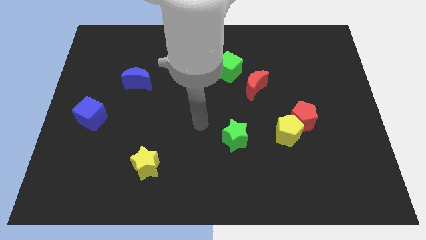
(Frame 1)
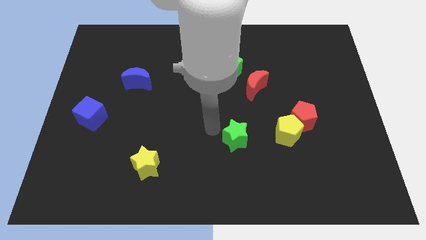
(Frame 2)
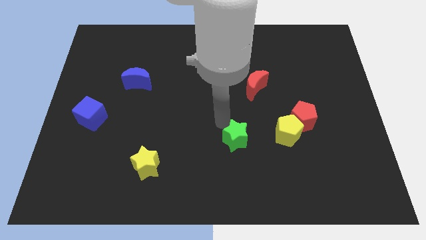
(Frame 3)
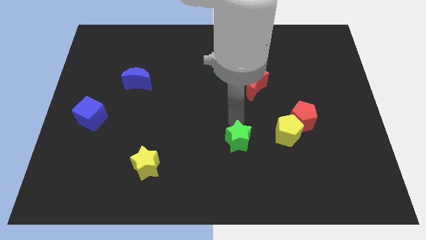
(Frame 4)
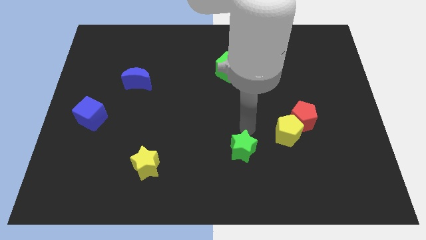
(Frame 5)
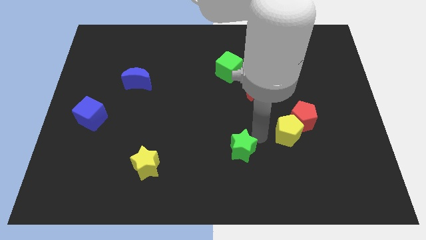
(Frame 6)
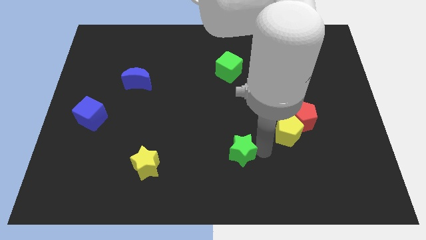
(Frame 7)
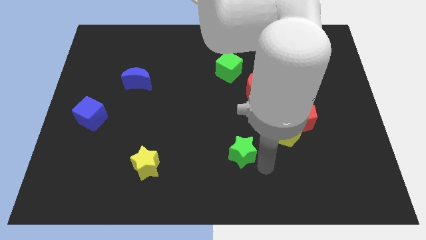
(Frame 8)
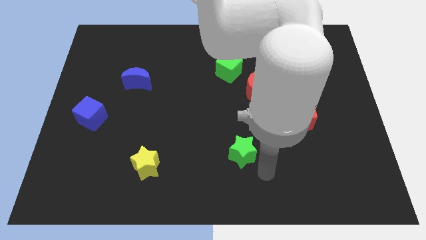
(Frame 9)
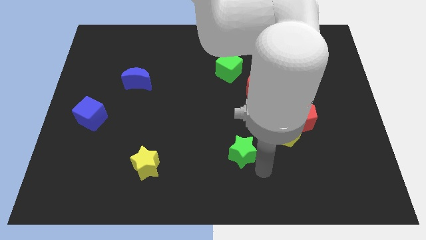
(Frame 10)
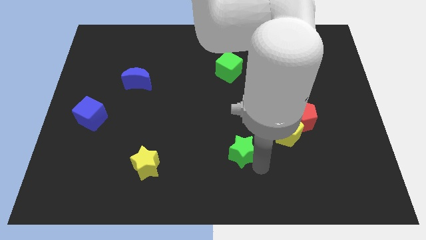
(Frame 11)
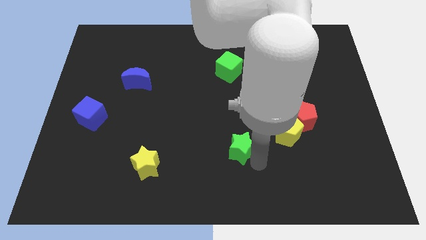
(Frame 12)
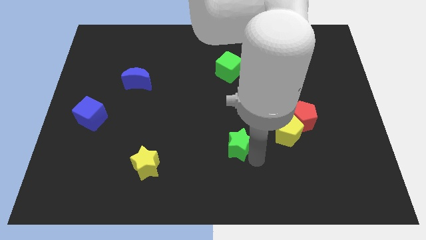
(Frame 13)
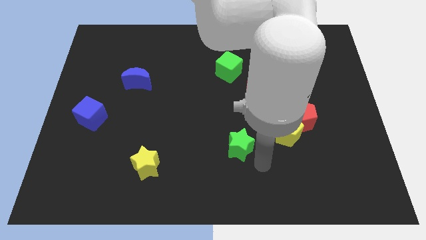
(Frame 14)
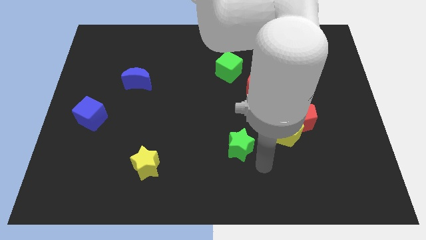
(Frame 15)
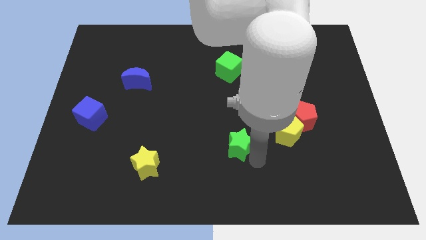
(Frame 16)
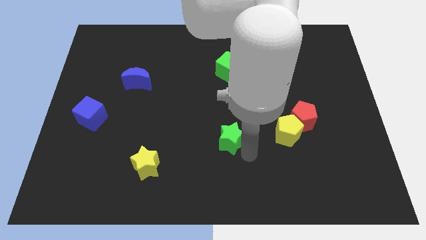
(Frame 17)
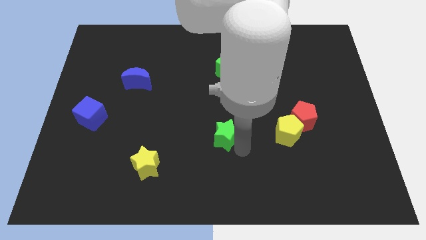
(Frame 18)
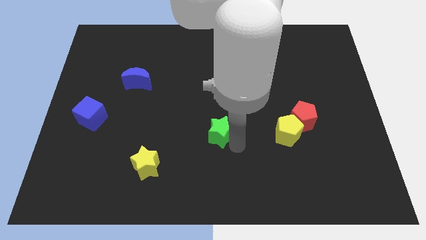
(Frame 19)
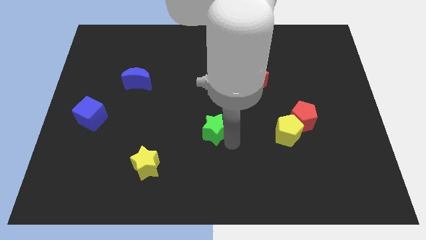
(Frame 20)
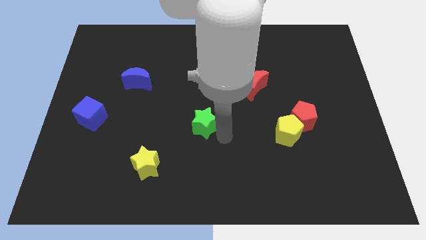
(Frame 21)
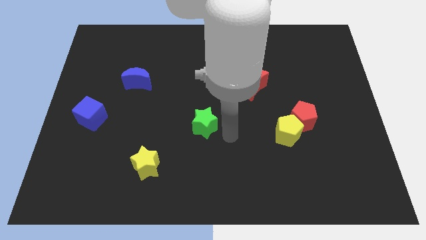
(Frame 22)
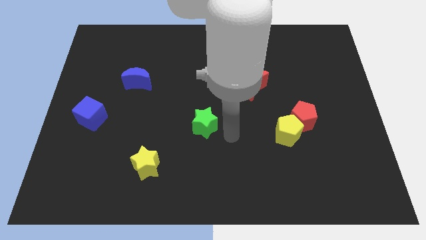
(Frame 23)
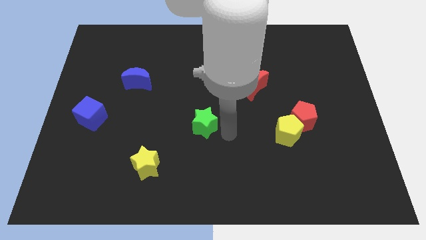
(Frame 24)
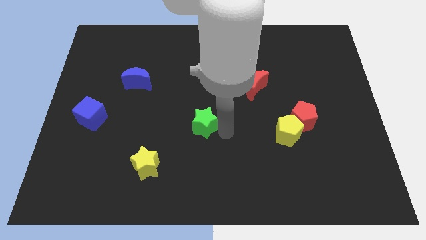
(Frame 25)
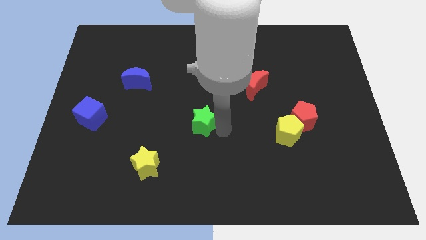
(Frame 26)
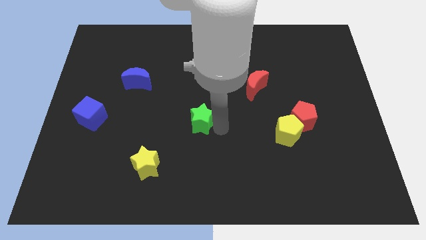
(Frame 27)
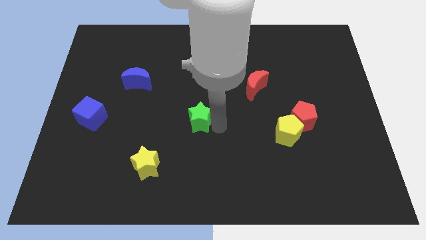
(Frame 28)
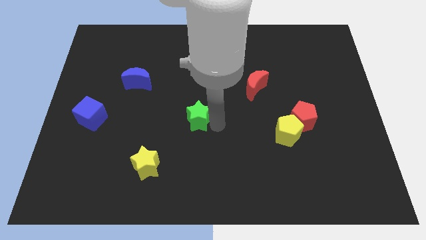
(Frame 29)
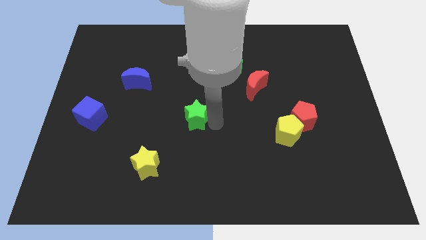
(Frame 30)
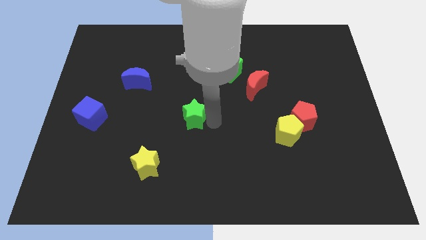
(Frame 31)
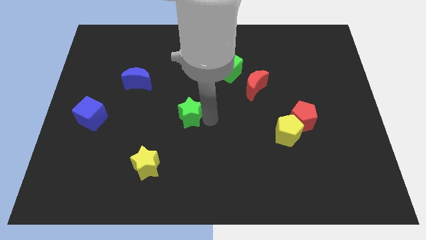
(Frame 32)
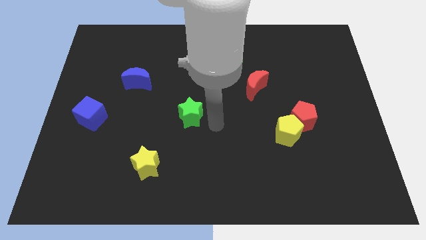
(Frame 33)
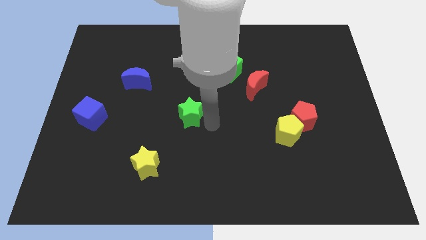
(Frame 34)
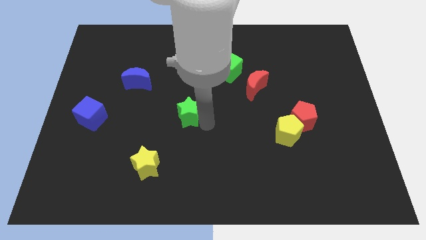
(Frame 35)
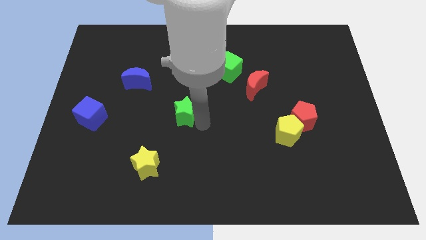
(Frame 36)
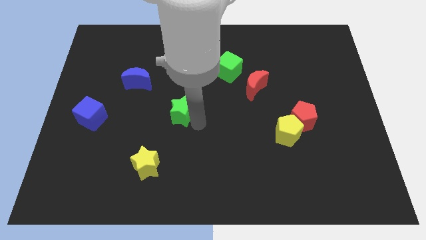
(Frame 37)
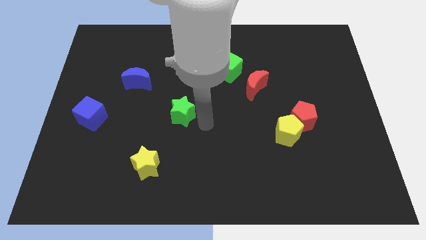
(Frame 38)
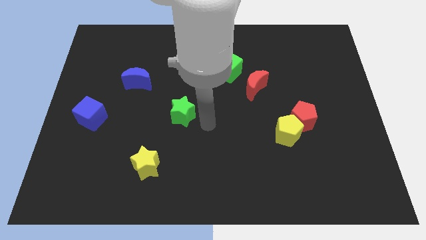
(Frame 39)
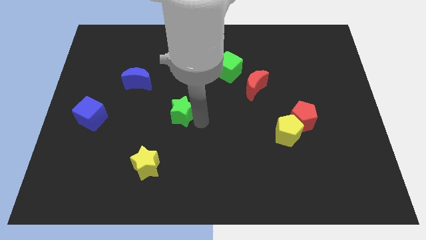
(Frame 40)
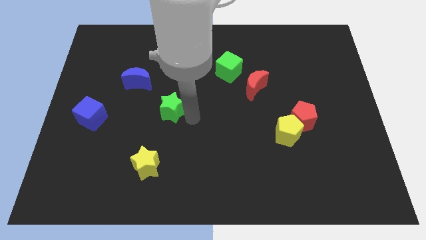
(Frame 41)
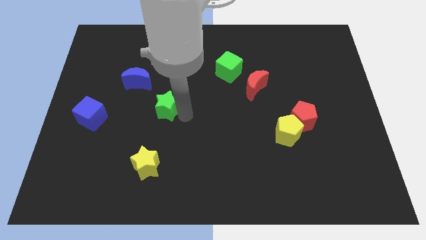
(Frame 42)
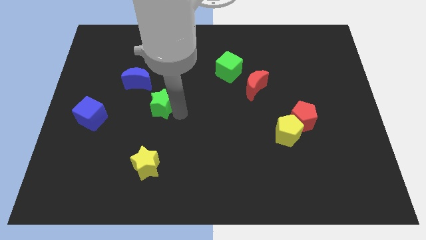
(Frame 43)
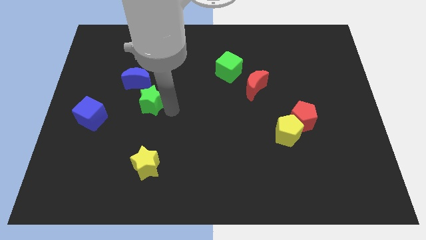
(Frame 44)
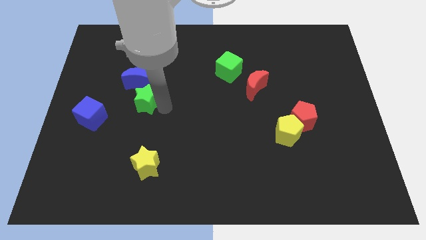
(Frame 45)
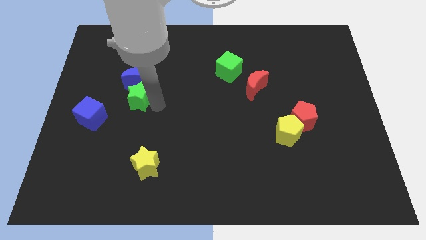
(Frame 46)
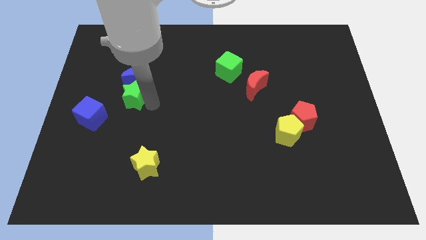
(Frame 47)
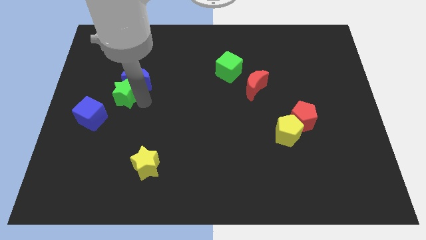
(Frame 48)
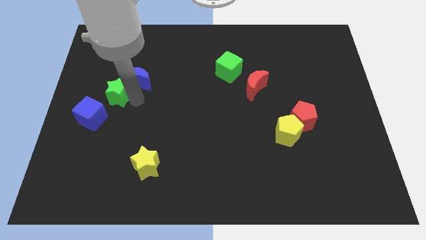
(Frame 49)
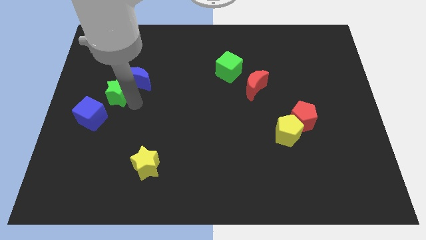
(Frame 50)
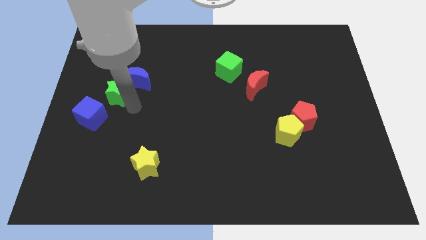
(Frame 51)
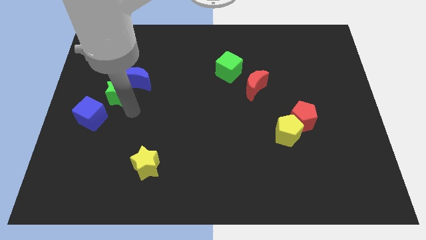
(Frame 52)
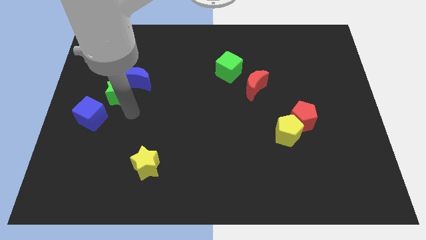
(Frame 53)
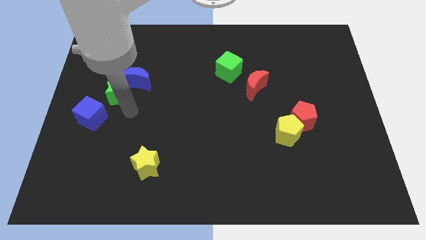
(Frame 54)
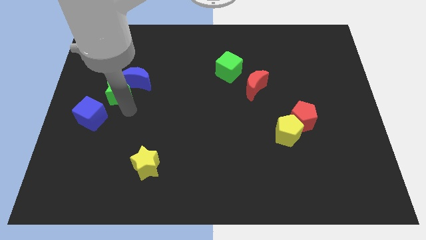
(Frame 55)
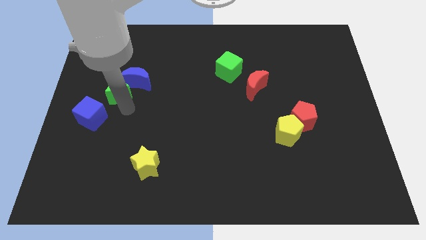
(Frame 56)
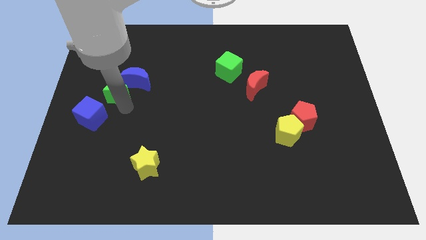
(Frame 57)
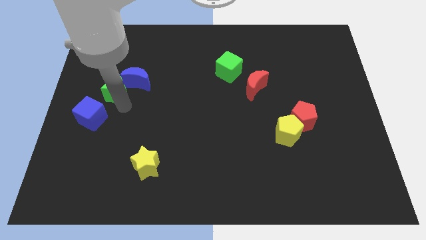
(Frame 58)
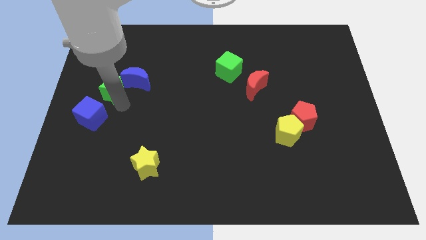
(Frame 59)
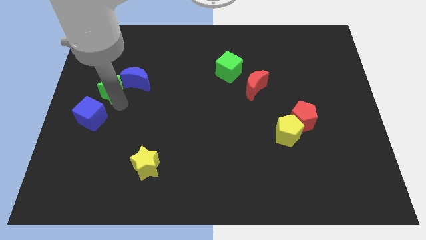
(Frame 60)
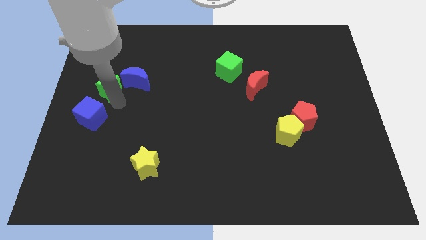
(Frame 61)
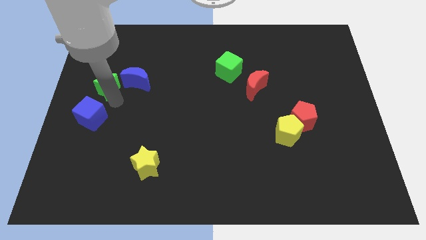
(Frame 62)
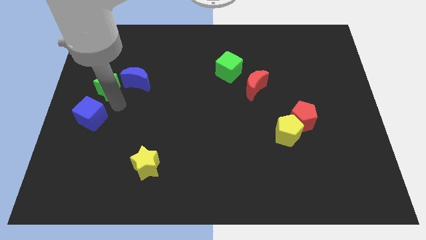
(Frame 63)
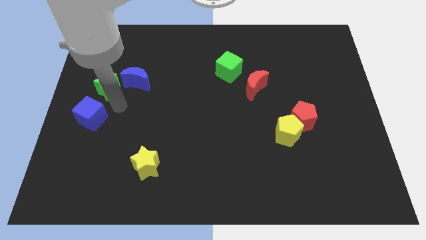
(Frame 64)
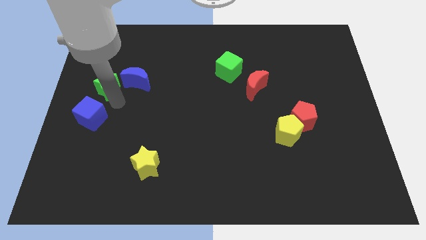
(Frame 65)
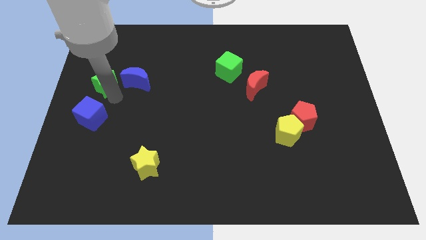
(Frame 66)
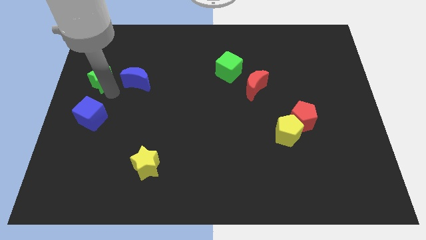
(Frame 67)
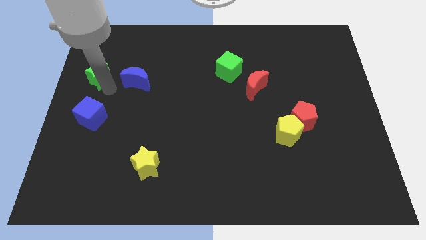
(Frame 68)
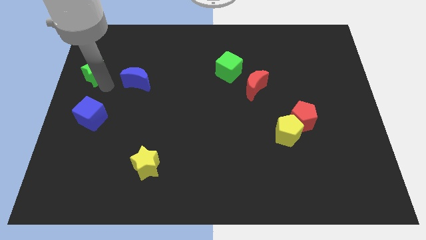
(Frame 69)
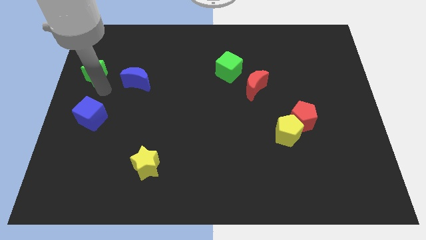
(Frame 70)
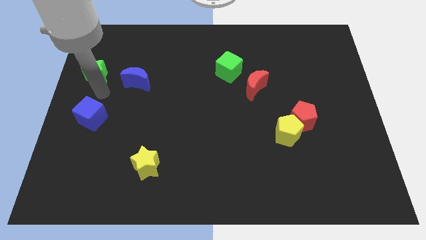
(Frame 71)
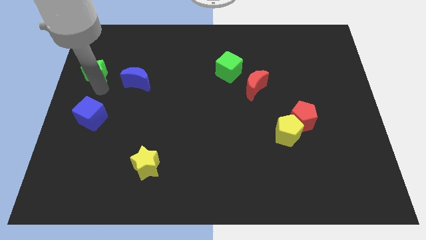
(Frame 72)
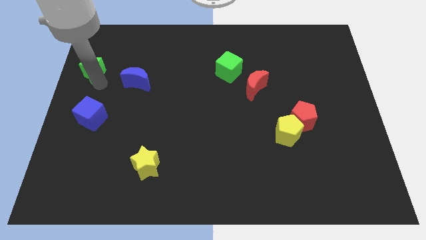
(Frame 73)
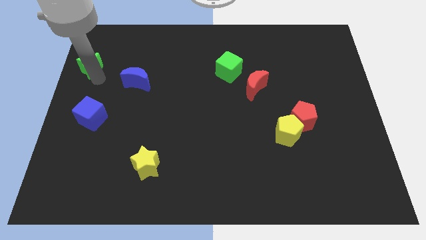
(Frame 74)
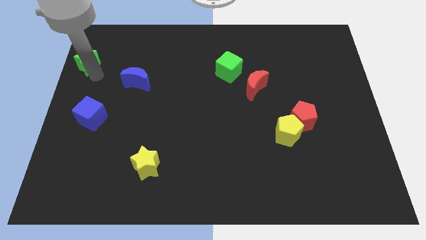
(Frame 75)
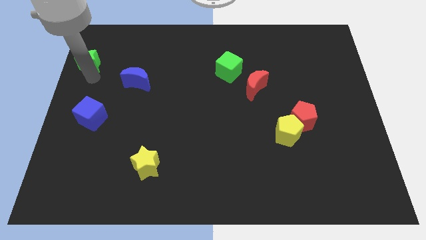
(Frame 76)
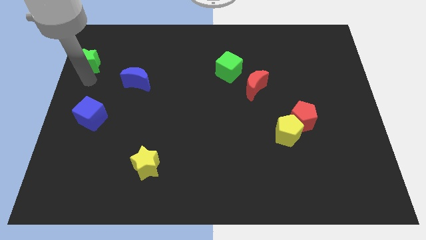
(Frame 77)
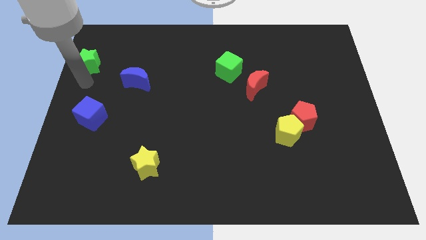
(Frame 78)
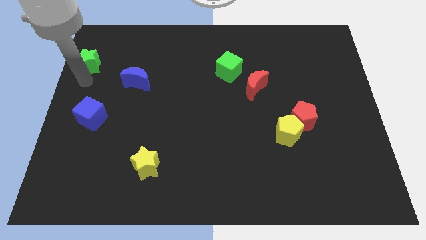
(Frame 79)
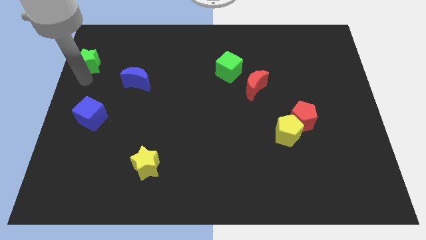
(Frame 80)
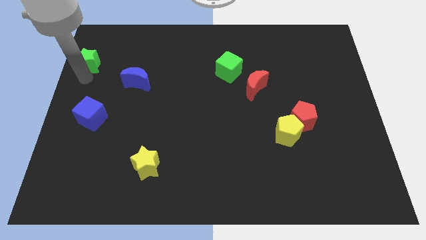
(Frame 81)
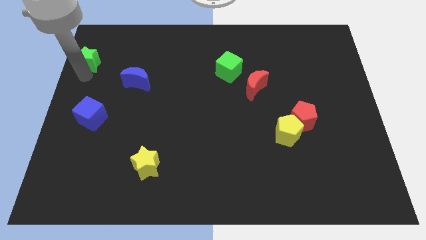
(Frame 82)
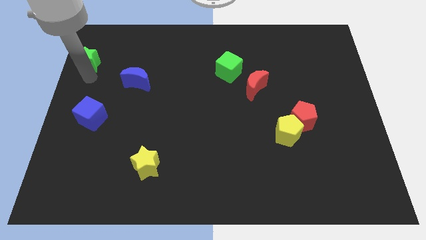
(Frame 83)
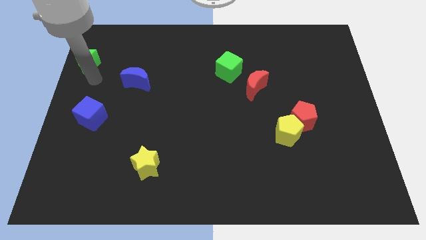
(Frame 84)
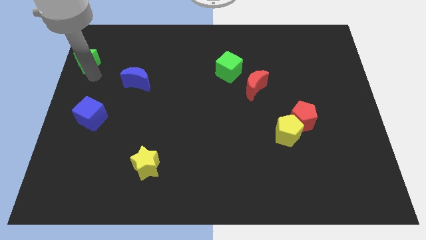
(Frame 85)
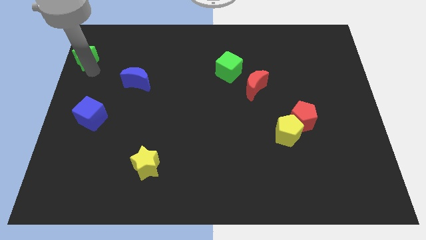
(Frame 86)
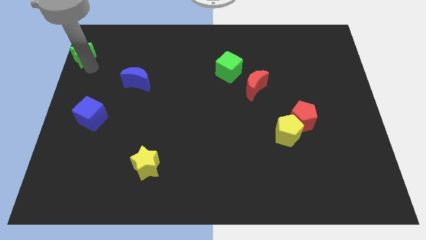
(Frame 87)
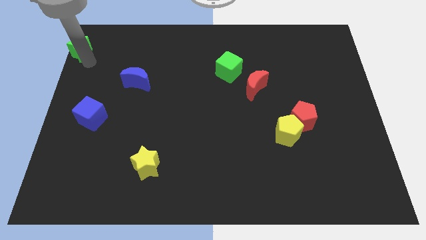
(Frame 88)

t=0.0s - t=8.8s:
push the green star to the top left corner
